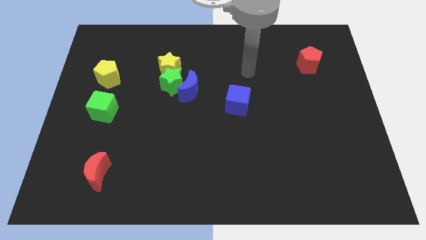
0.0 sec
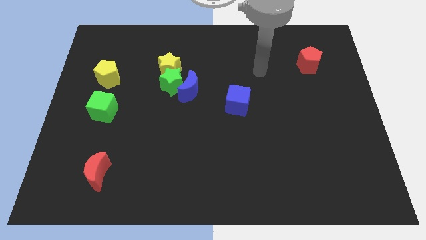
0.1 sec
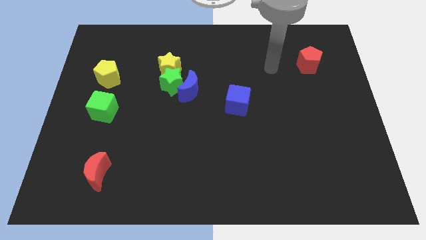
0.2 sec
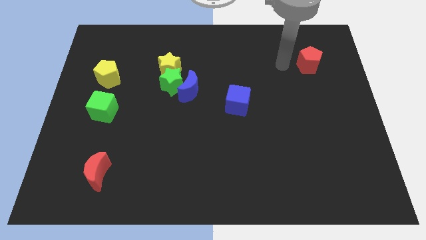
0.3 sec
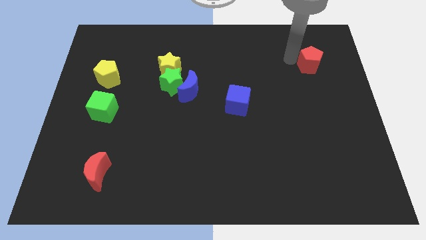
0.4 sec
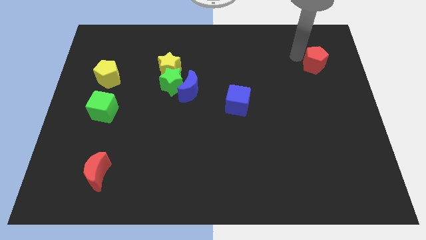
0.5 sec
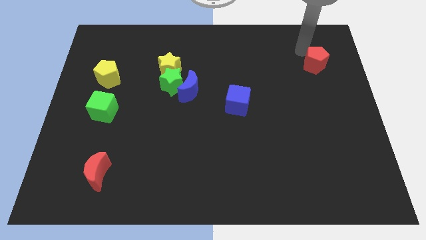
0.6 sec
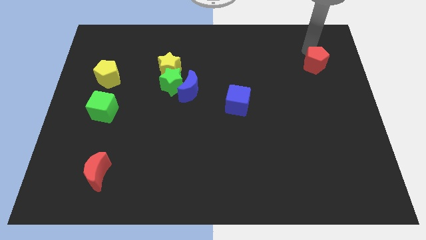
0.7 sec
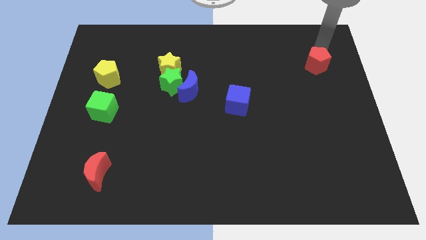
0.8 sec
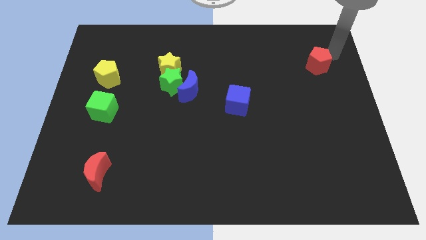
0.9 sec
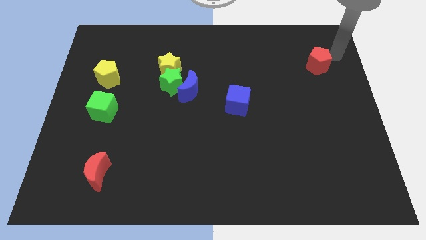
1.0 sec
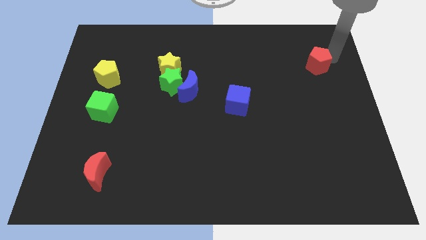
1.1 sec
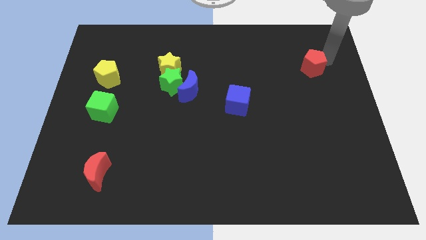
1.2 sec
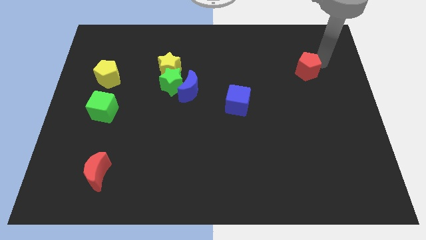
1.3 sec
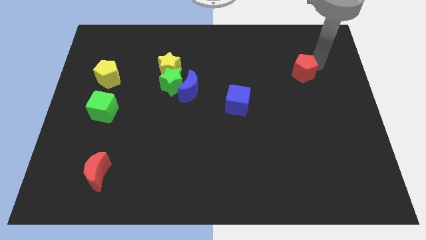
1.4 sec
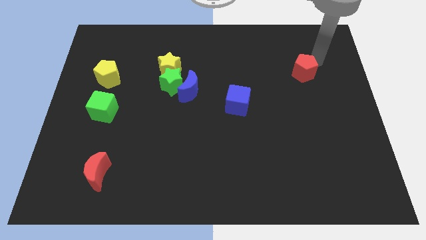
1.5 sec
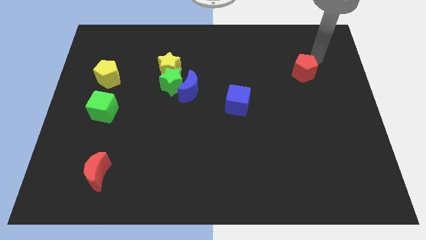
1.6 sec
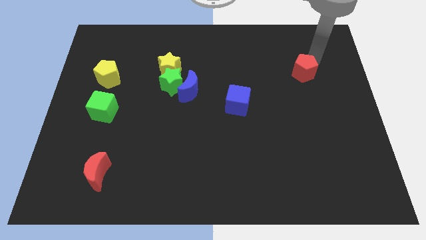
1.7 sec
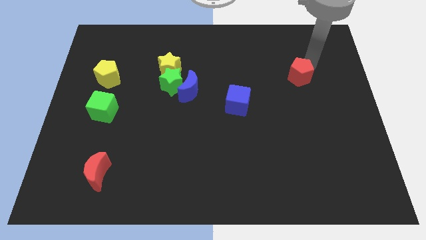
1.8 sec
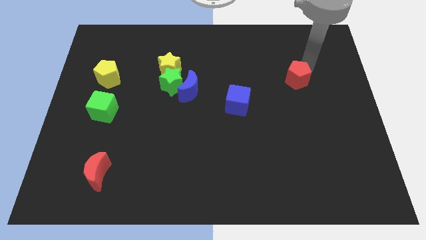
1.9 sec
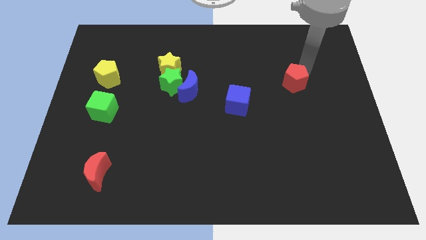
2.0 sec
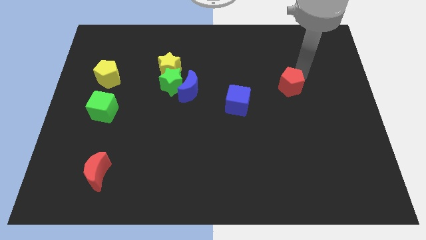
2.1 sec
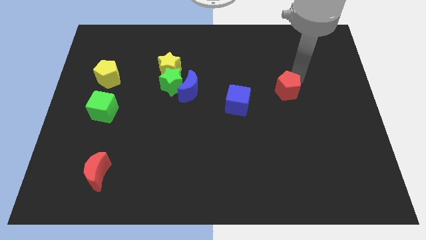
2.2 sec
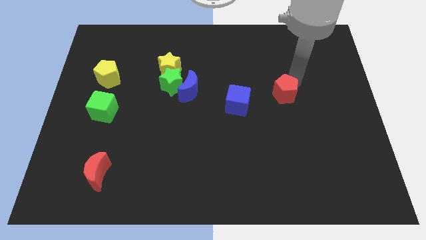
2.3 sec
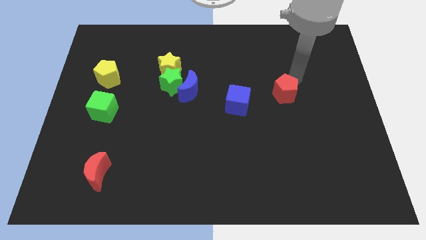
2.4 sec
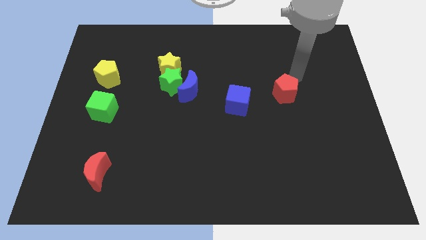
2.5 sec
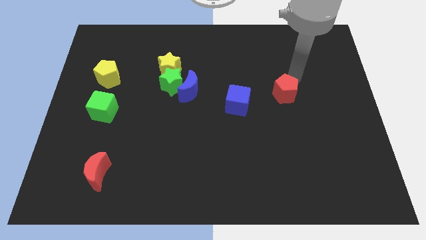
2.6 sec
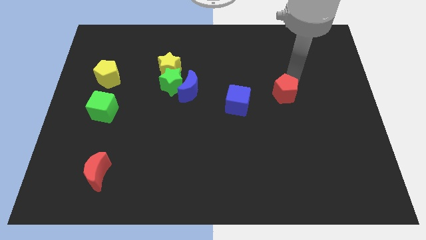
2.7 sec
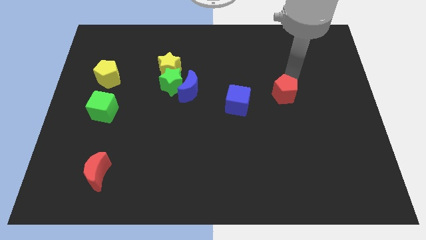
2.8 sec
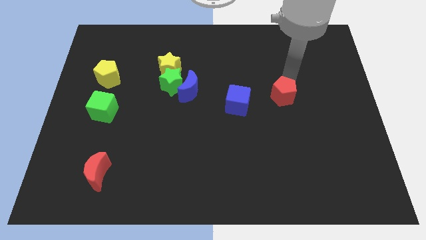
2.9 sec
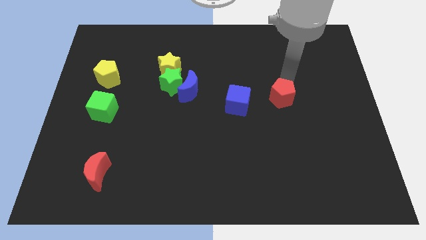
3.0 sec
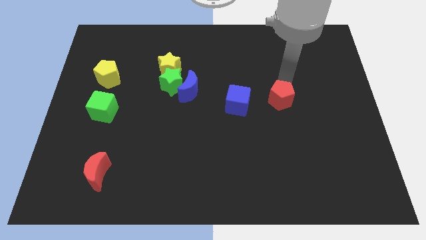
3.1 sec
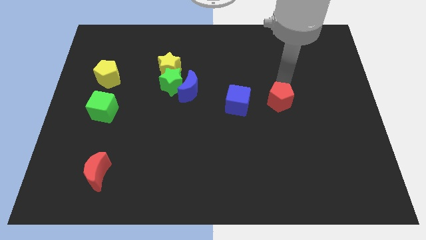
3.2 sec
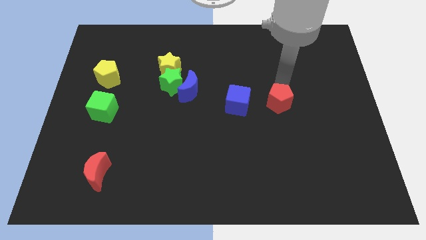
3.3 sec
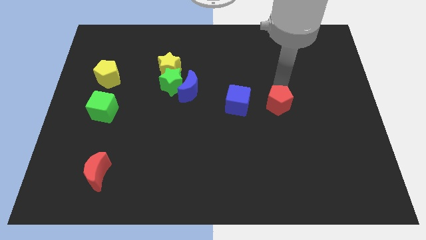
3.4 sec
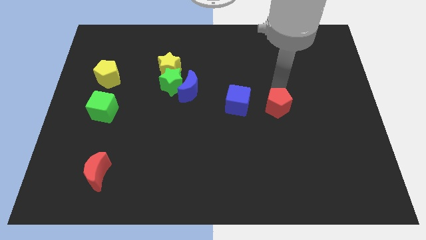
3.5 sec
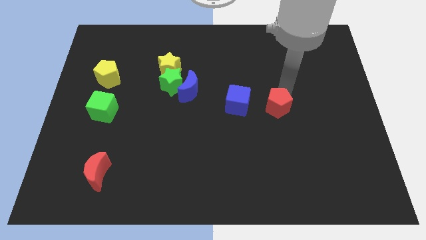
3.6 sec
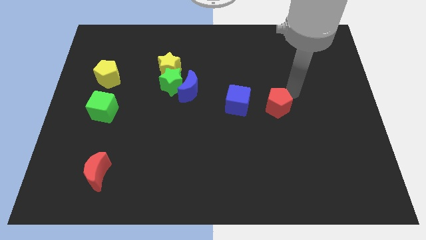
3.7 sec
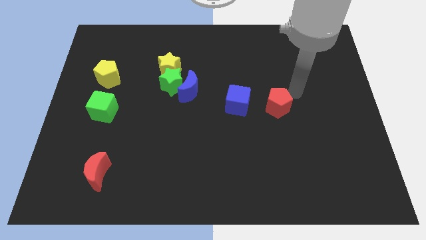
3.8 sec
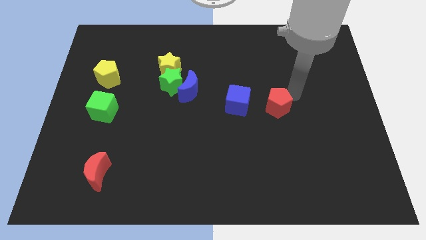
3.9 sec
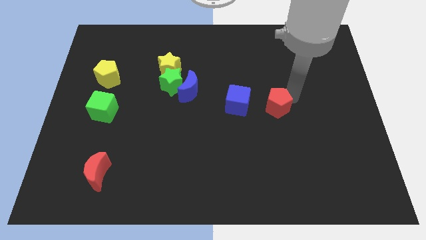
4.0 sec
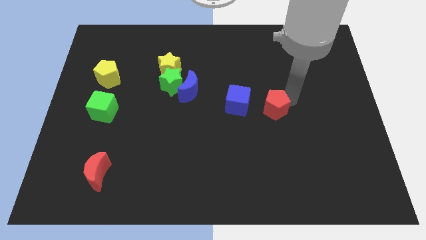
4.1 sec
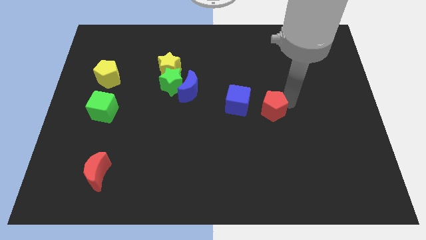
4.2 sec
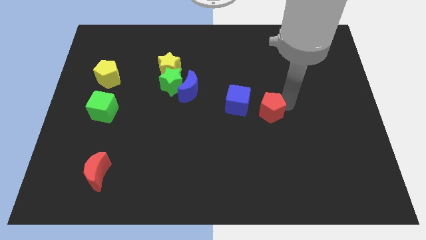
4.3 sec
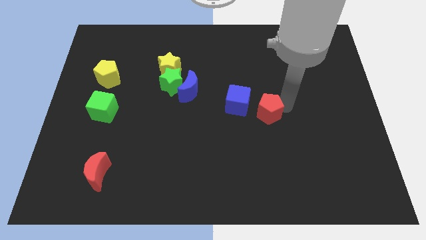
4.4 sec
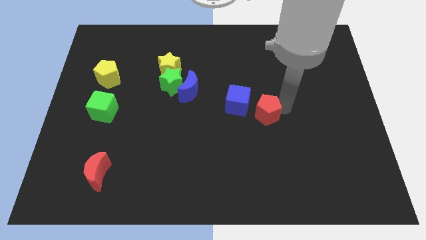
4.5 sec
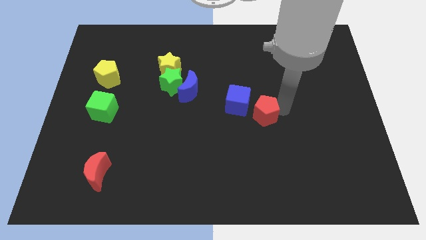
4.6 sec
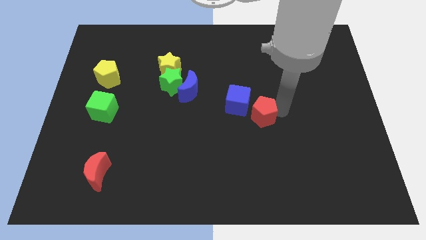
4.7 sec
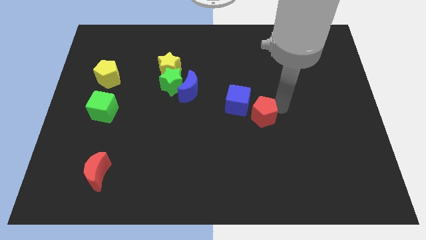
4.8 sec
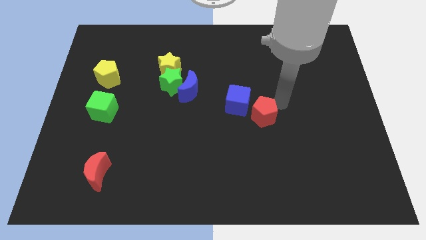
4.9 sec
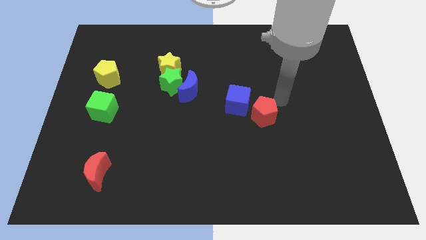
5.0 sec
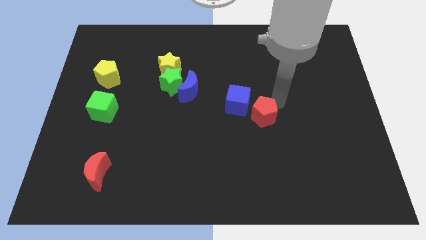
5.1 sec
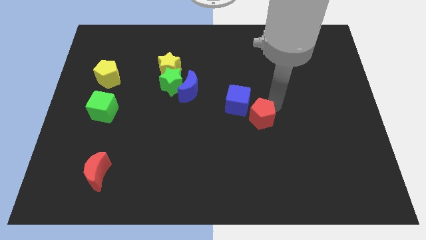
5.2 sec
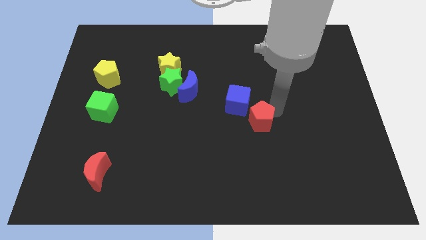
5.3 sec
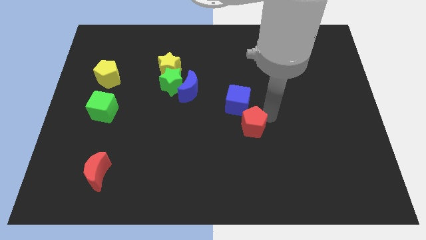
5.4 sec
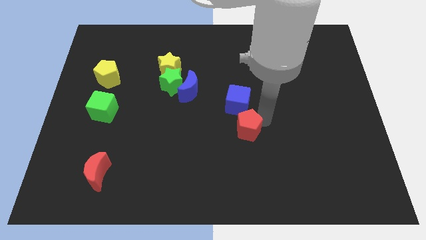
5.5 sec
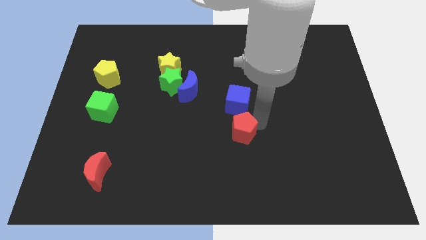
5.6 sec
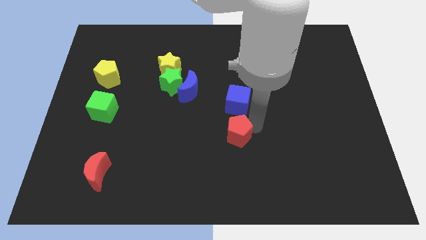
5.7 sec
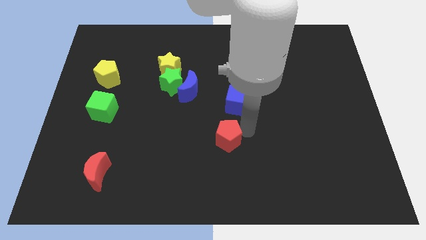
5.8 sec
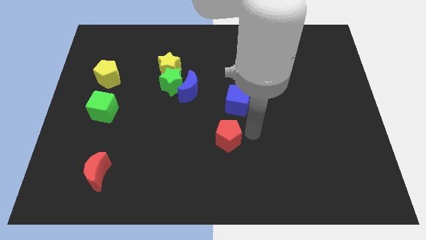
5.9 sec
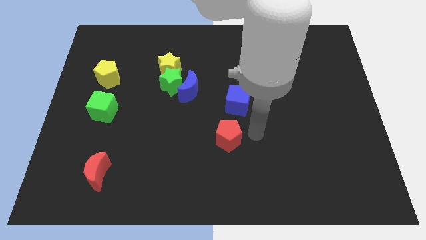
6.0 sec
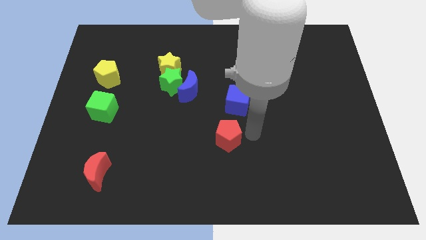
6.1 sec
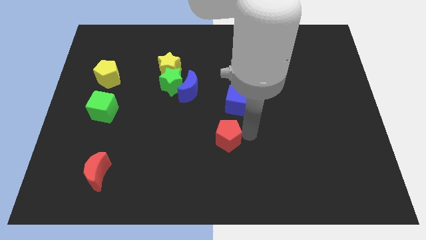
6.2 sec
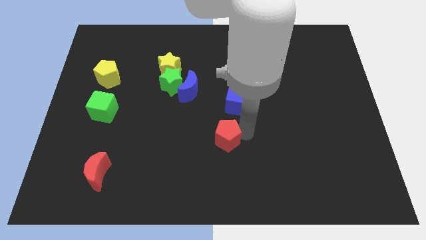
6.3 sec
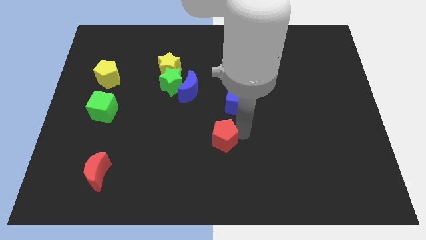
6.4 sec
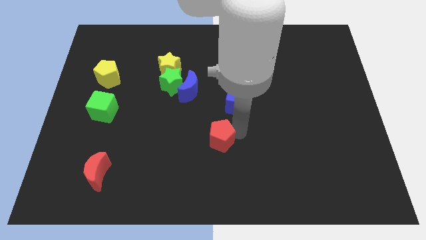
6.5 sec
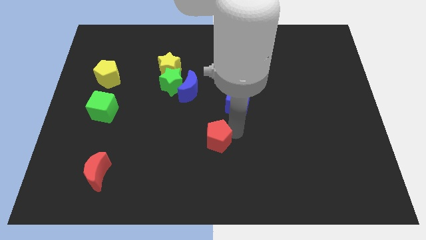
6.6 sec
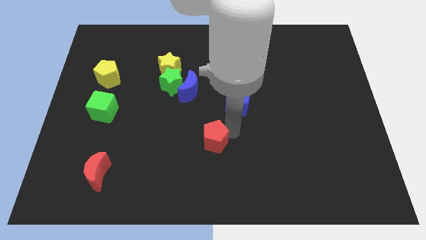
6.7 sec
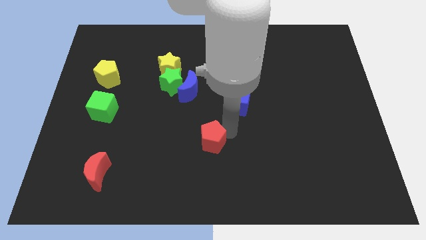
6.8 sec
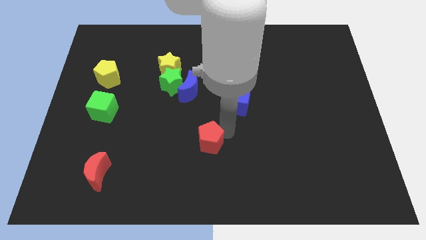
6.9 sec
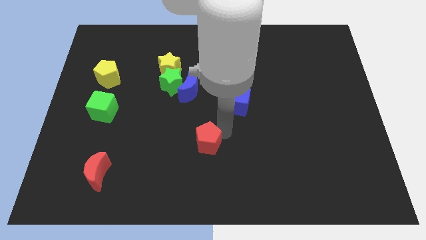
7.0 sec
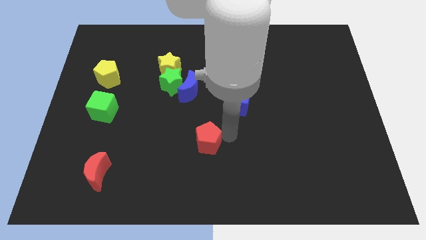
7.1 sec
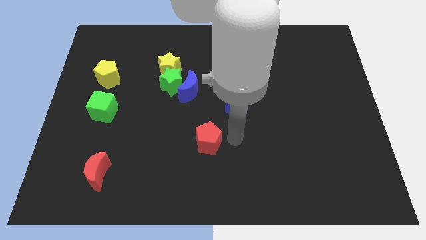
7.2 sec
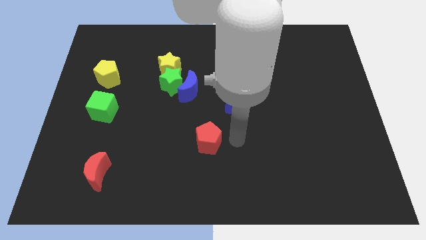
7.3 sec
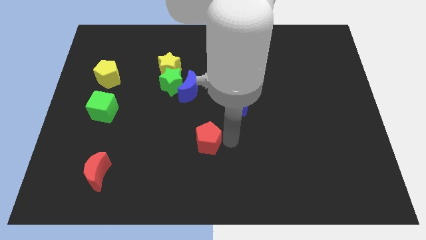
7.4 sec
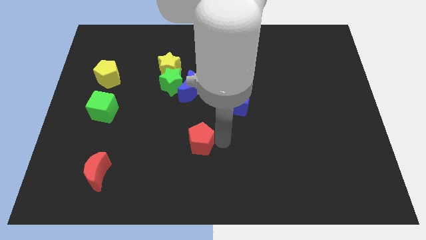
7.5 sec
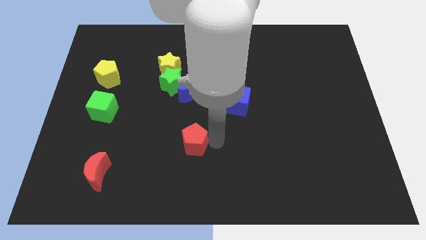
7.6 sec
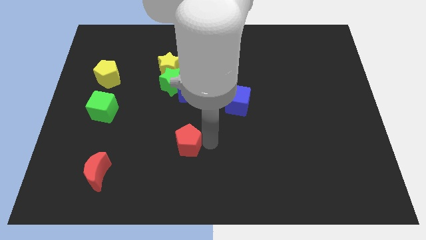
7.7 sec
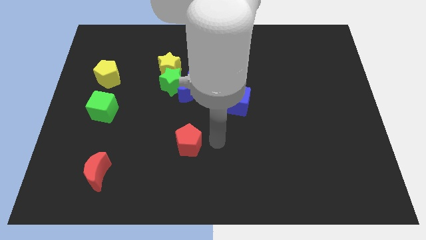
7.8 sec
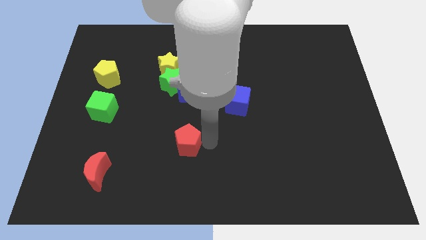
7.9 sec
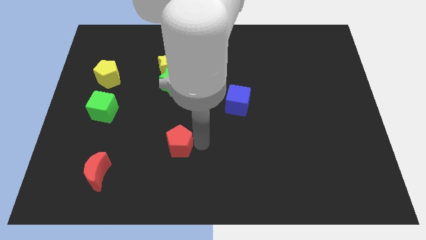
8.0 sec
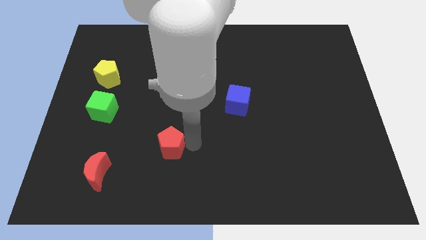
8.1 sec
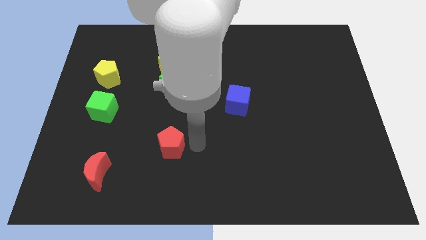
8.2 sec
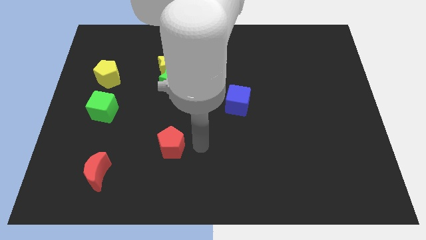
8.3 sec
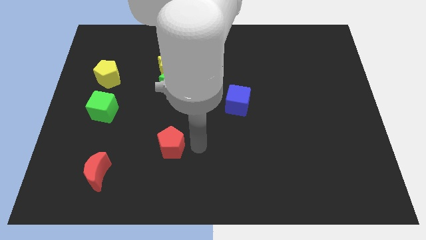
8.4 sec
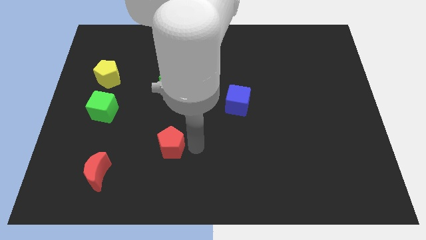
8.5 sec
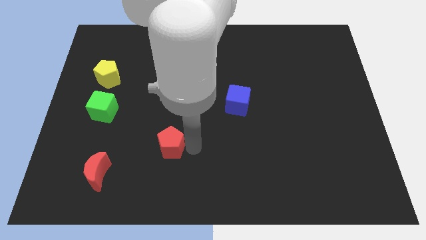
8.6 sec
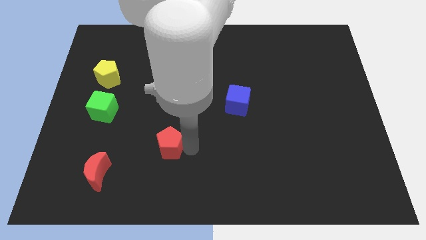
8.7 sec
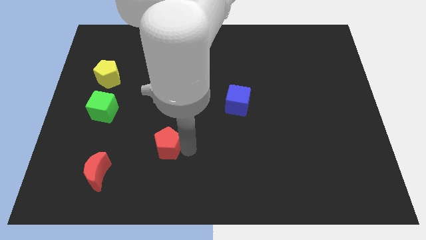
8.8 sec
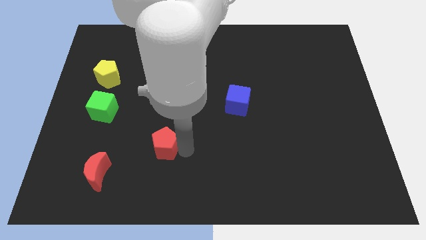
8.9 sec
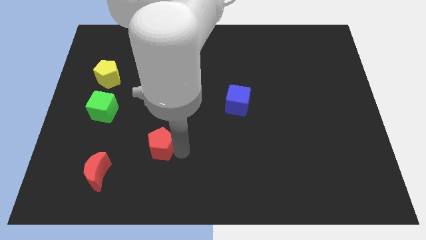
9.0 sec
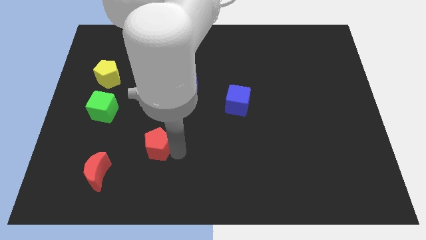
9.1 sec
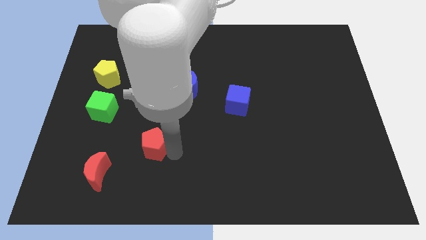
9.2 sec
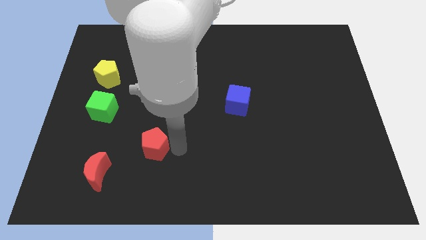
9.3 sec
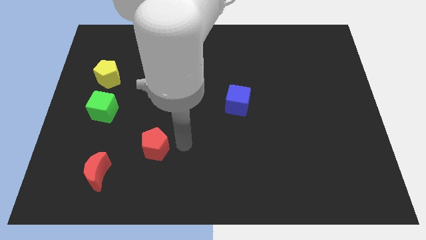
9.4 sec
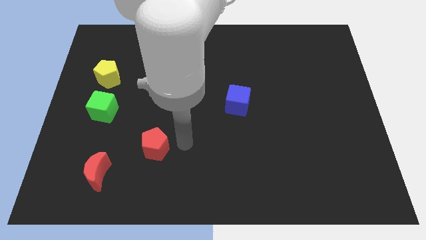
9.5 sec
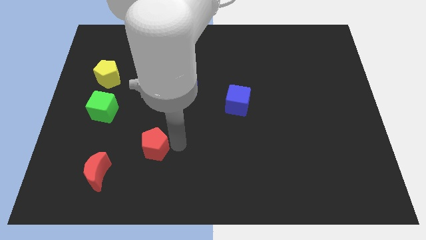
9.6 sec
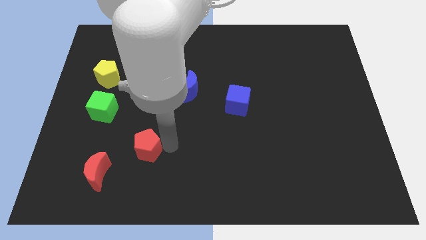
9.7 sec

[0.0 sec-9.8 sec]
push the red pentagon diagonally up and to the right of the red moon
